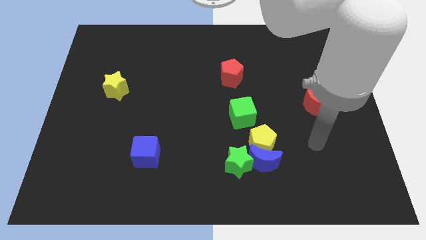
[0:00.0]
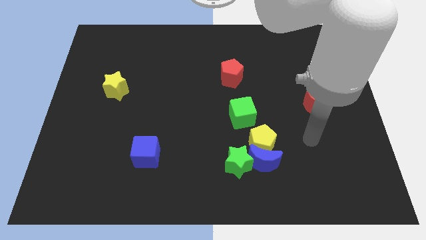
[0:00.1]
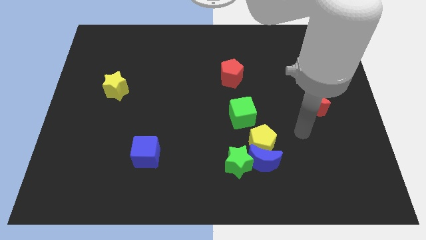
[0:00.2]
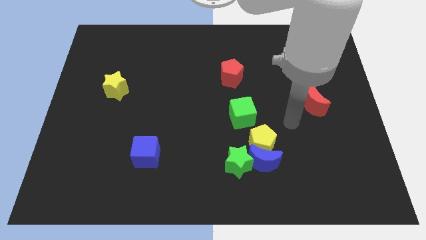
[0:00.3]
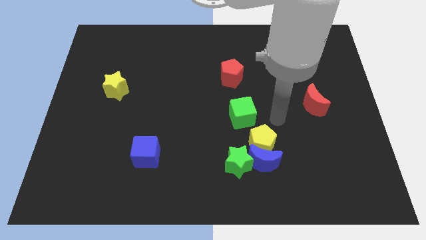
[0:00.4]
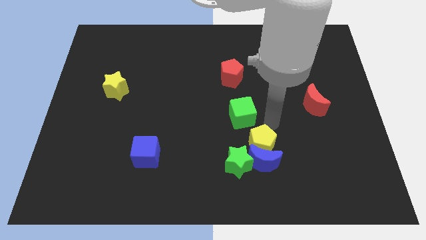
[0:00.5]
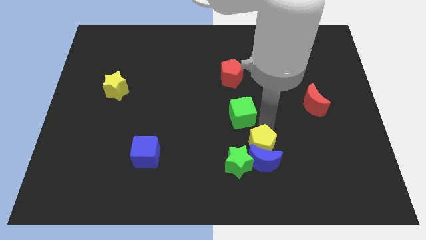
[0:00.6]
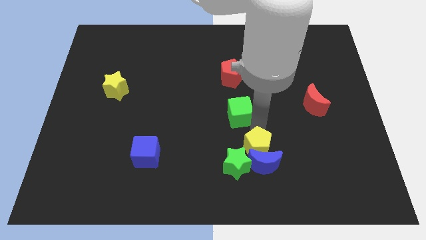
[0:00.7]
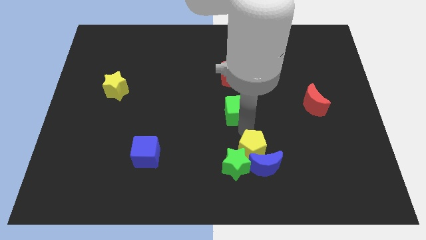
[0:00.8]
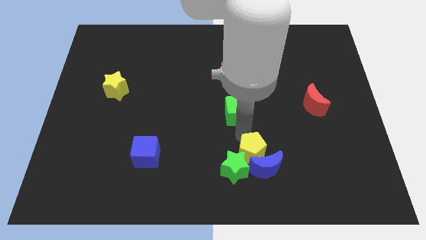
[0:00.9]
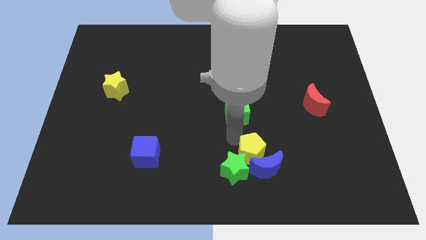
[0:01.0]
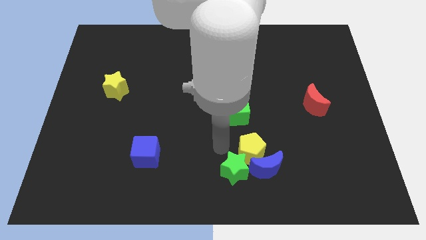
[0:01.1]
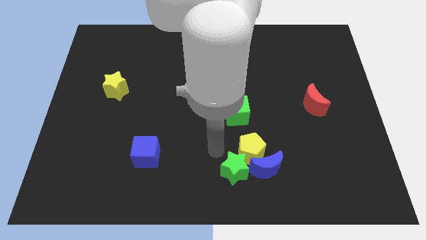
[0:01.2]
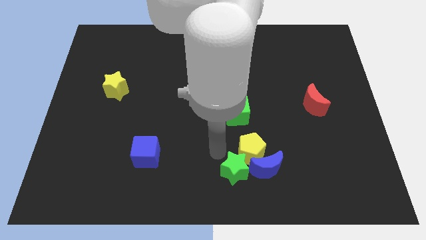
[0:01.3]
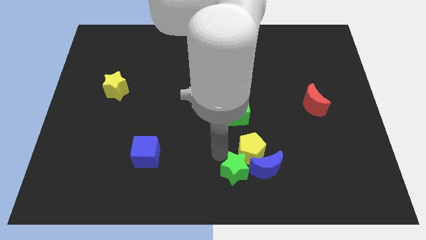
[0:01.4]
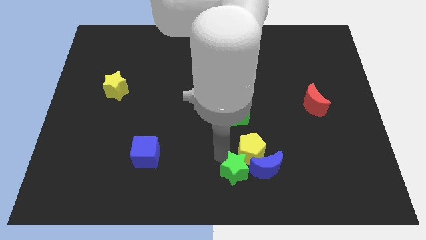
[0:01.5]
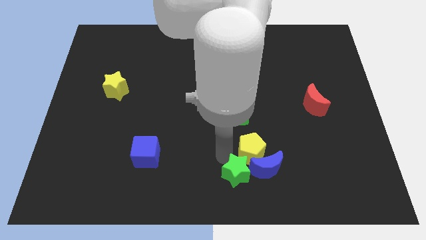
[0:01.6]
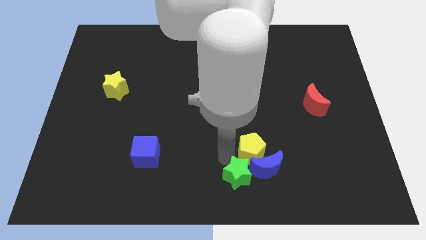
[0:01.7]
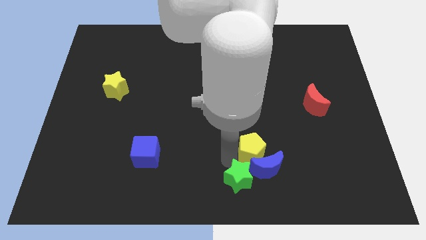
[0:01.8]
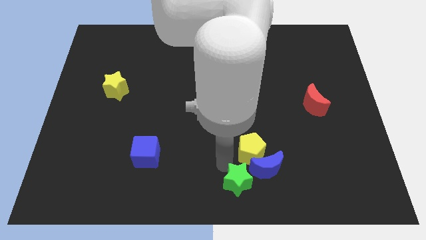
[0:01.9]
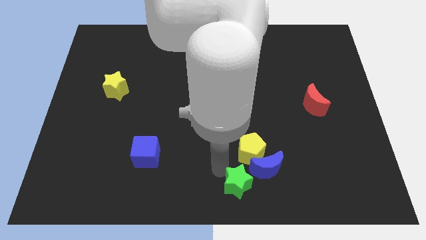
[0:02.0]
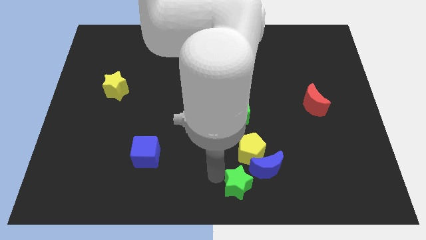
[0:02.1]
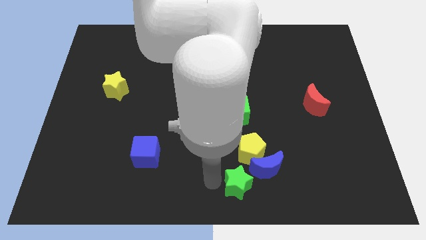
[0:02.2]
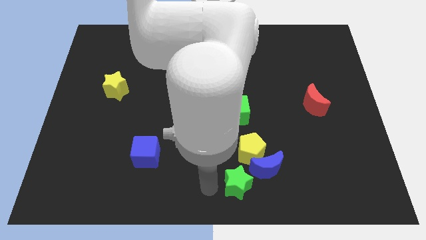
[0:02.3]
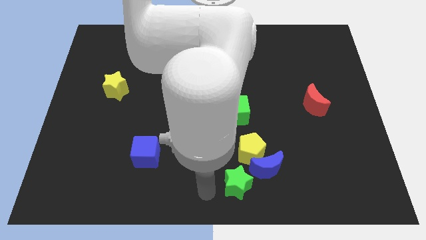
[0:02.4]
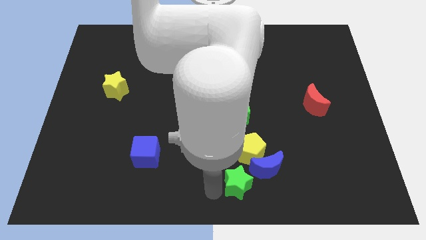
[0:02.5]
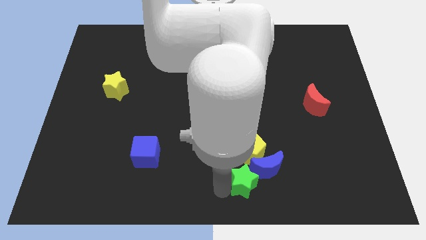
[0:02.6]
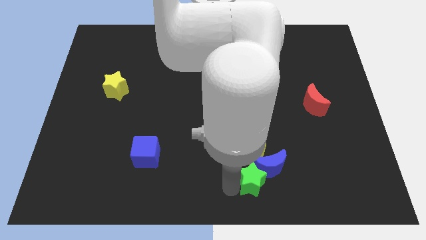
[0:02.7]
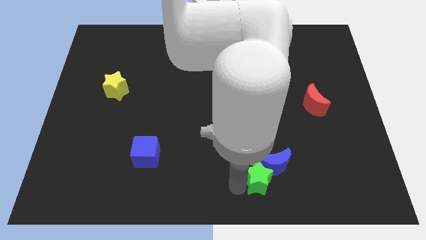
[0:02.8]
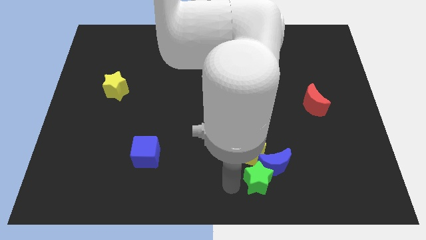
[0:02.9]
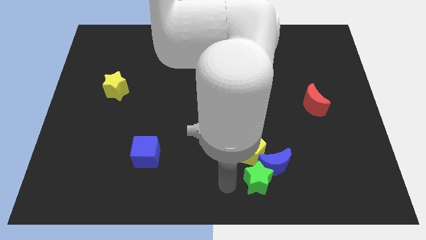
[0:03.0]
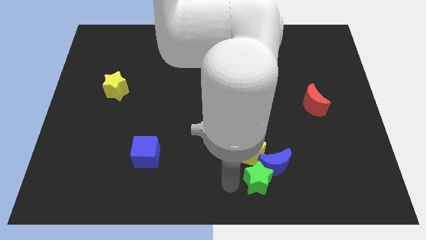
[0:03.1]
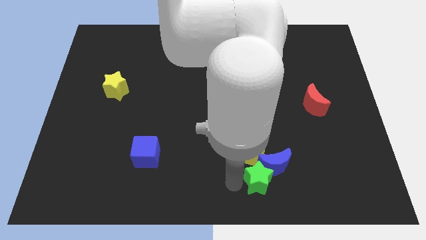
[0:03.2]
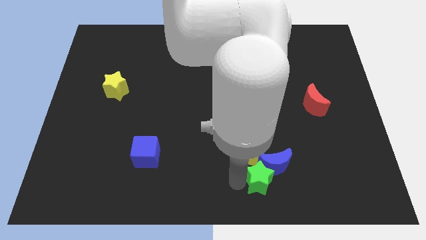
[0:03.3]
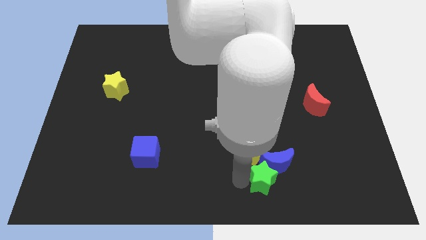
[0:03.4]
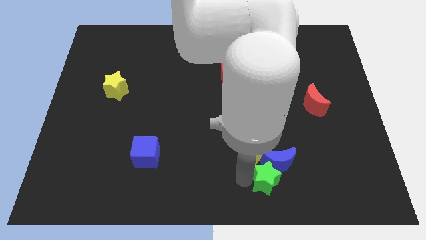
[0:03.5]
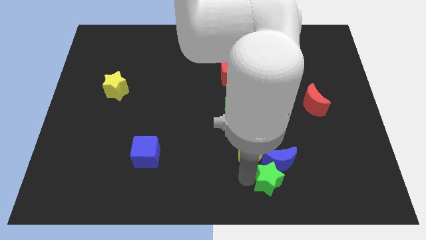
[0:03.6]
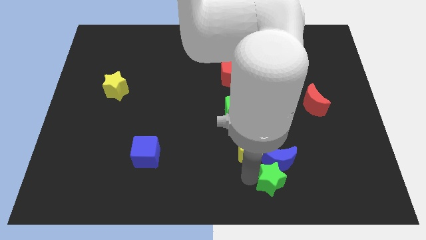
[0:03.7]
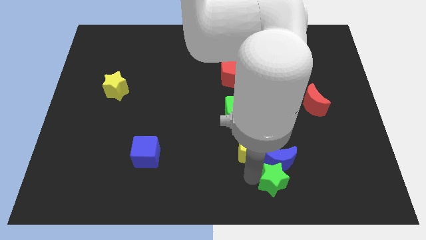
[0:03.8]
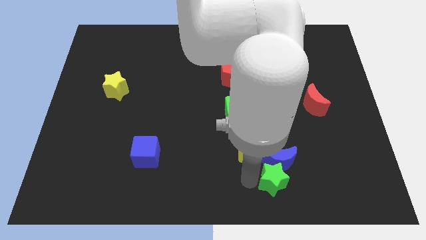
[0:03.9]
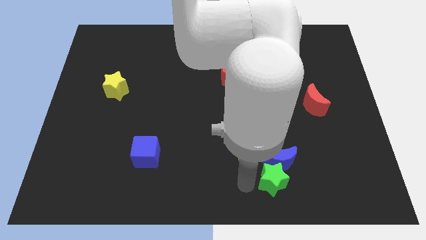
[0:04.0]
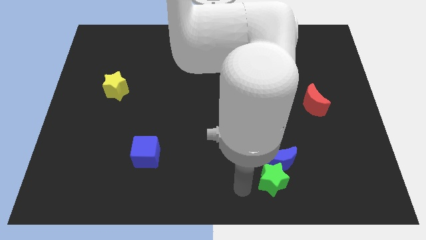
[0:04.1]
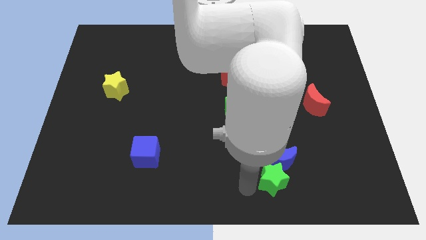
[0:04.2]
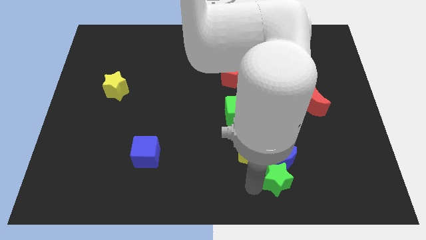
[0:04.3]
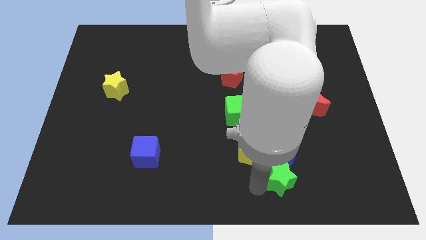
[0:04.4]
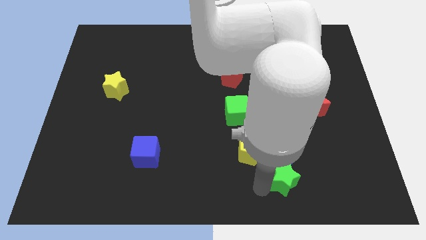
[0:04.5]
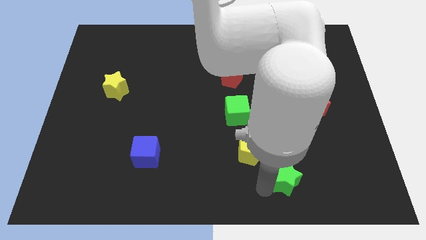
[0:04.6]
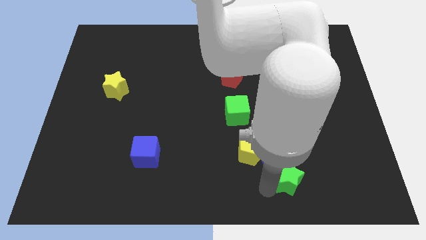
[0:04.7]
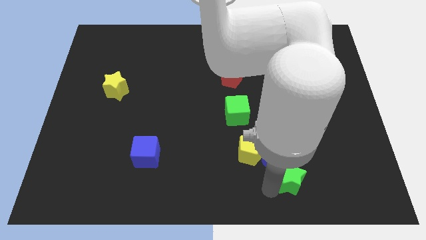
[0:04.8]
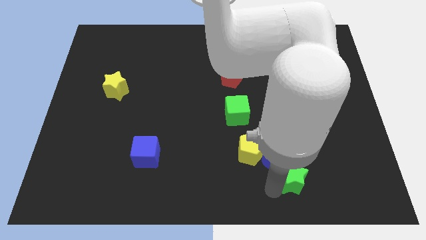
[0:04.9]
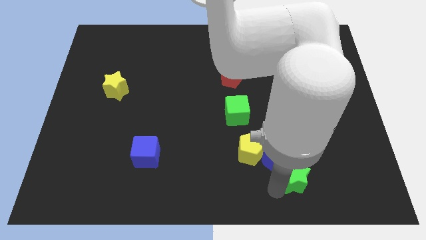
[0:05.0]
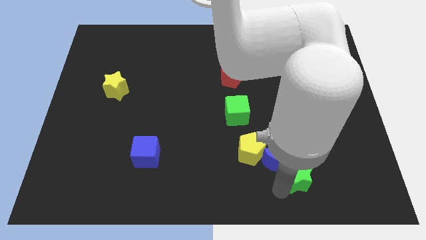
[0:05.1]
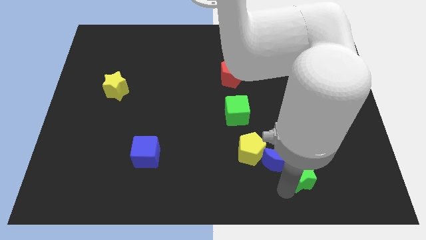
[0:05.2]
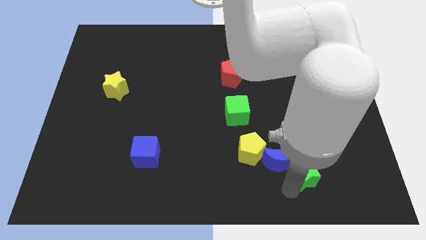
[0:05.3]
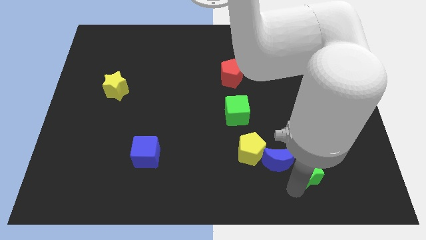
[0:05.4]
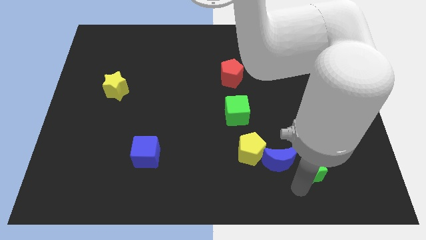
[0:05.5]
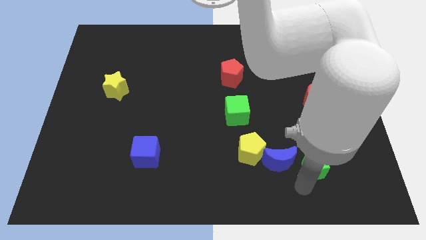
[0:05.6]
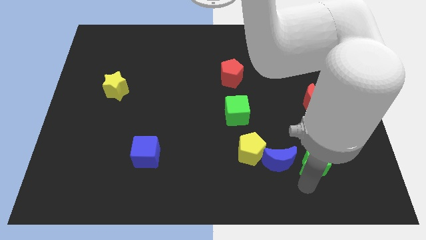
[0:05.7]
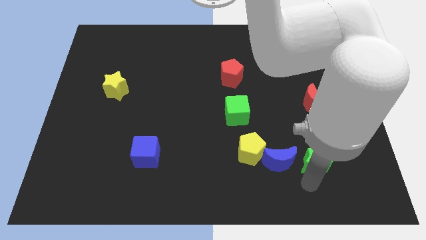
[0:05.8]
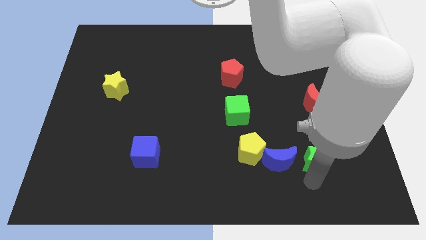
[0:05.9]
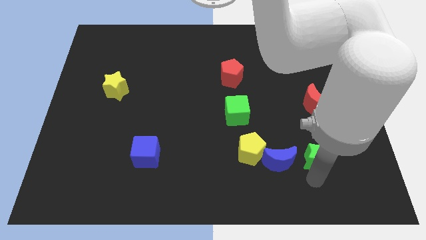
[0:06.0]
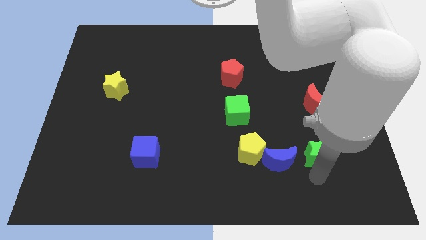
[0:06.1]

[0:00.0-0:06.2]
move the green star to the top right of the blue moon
